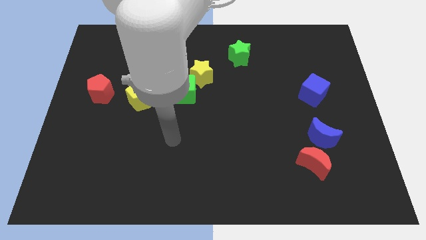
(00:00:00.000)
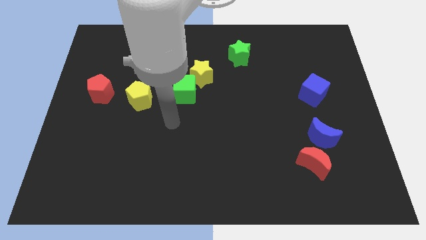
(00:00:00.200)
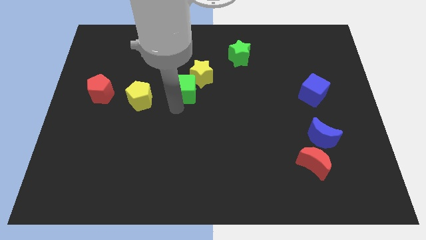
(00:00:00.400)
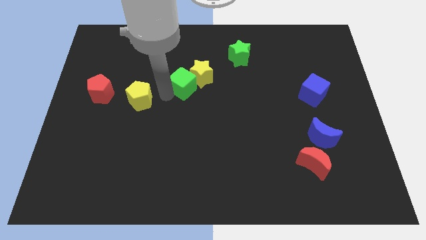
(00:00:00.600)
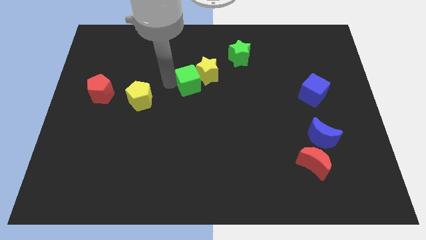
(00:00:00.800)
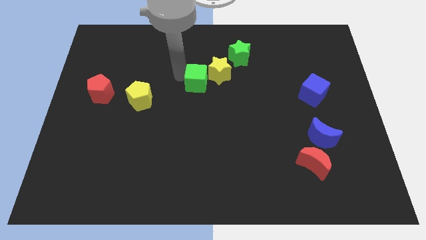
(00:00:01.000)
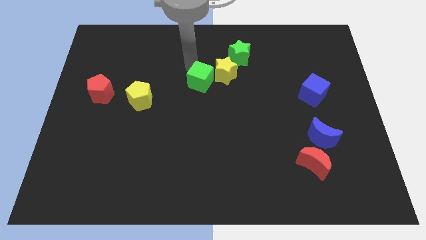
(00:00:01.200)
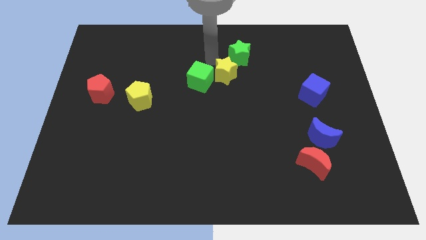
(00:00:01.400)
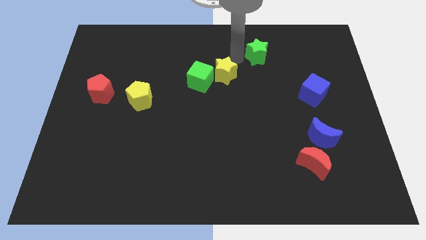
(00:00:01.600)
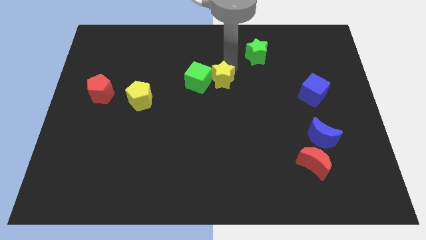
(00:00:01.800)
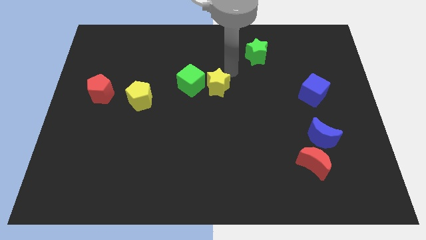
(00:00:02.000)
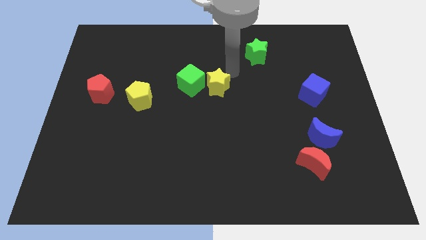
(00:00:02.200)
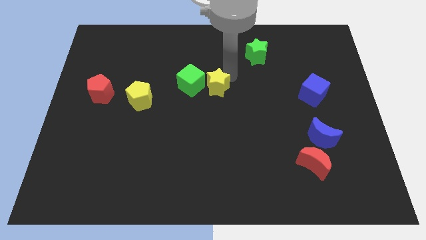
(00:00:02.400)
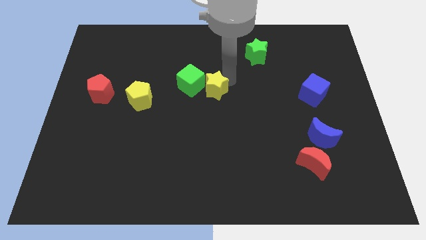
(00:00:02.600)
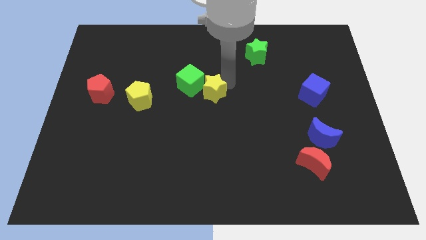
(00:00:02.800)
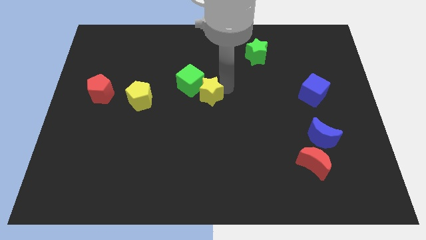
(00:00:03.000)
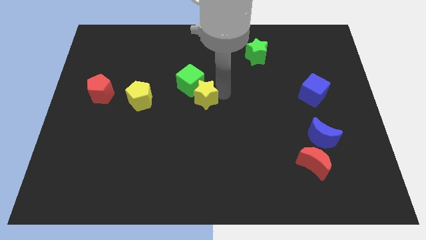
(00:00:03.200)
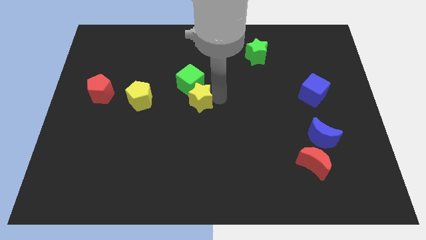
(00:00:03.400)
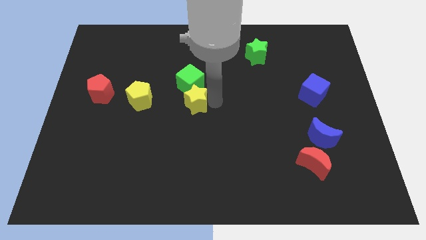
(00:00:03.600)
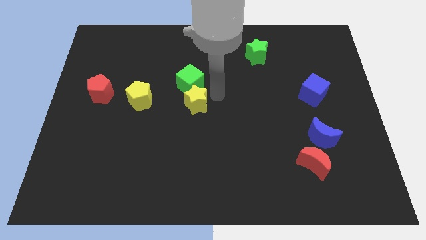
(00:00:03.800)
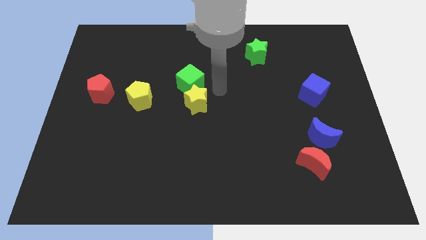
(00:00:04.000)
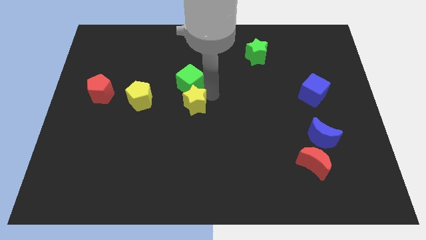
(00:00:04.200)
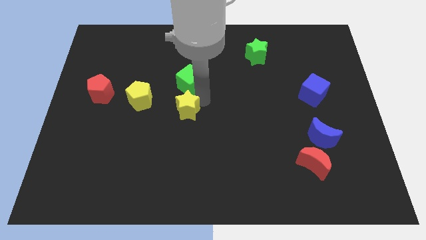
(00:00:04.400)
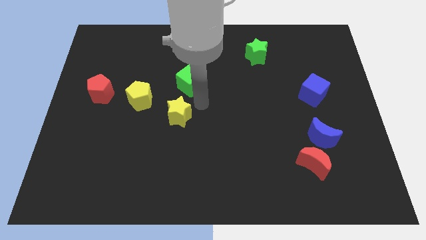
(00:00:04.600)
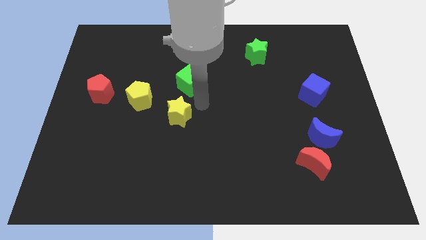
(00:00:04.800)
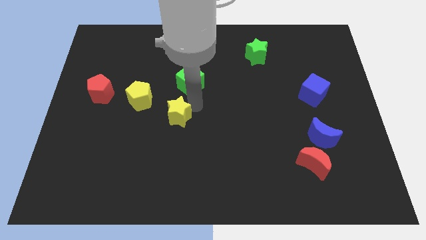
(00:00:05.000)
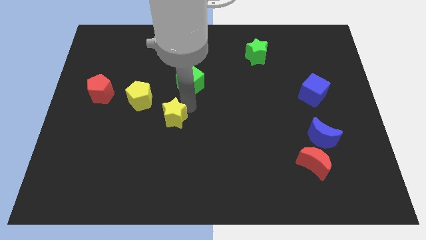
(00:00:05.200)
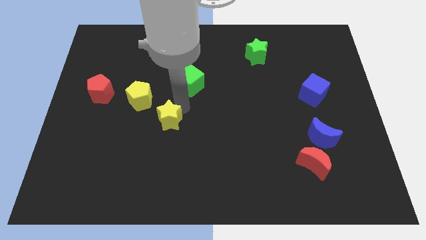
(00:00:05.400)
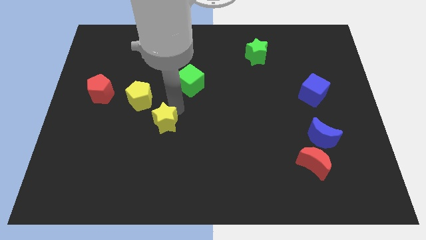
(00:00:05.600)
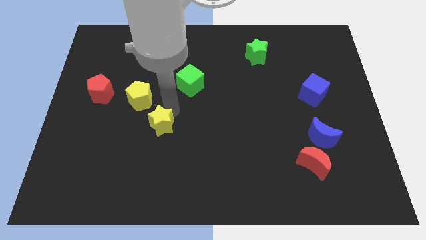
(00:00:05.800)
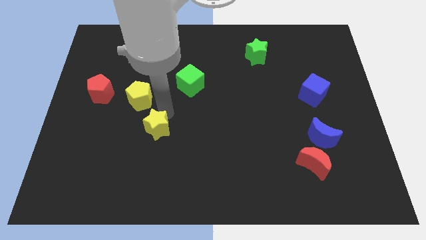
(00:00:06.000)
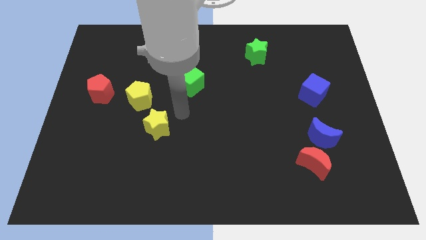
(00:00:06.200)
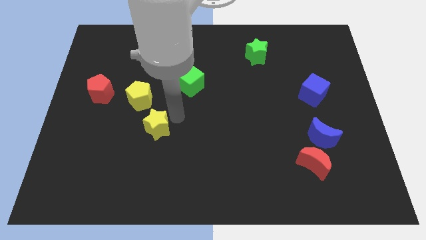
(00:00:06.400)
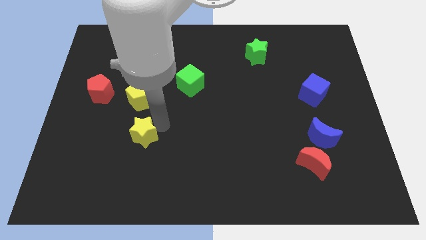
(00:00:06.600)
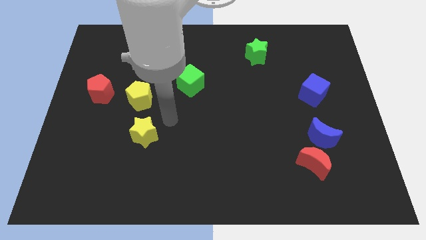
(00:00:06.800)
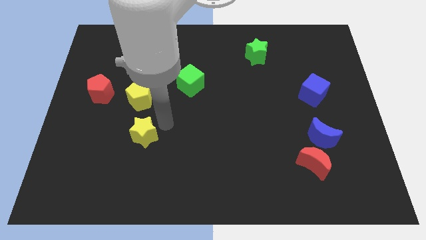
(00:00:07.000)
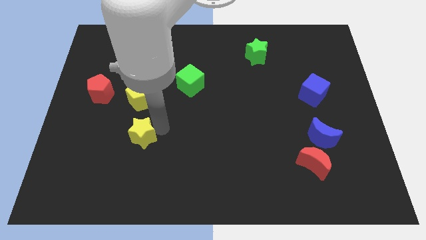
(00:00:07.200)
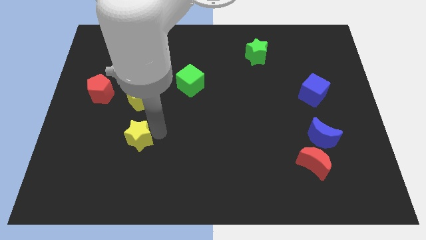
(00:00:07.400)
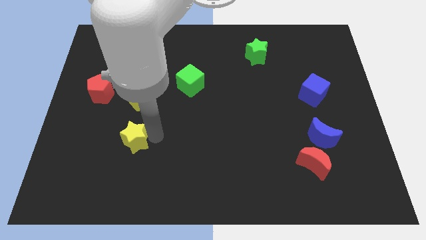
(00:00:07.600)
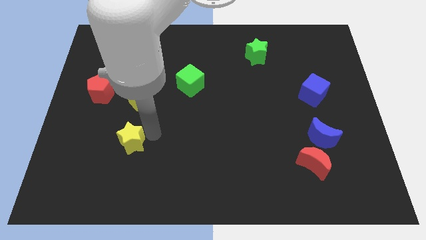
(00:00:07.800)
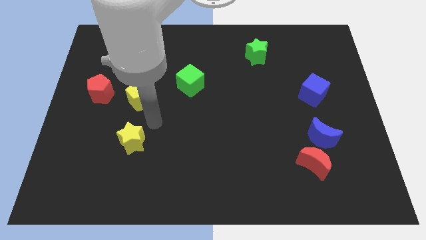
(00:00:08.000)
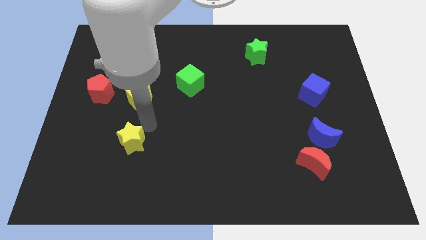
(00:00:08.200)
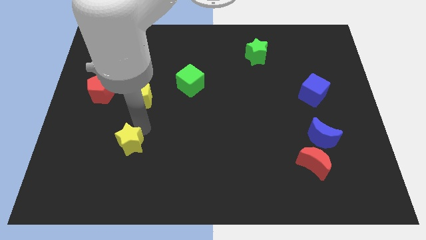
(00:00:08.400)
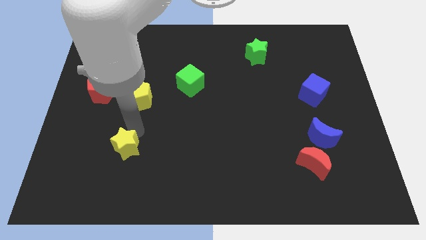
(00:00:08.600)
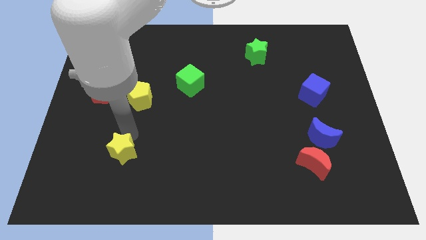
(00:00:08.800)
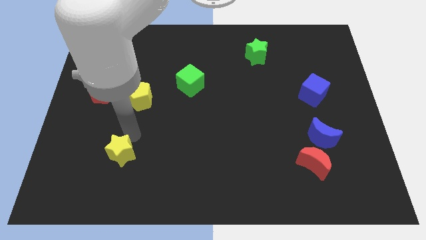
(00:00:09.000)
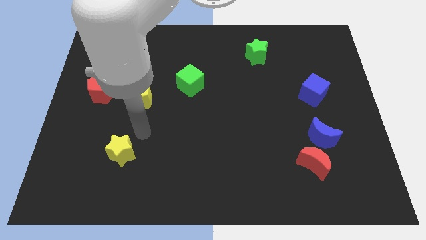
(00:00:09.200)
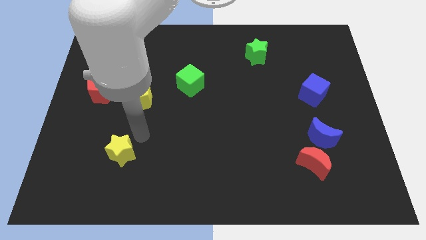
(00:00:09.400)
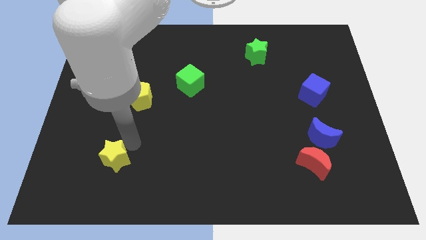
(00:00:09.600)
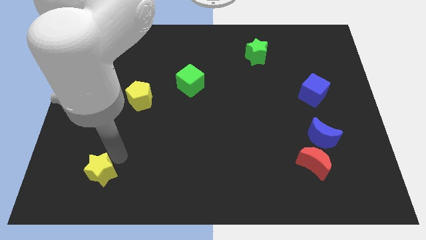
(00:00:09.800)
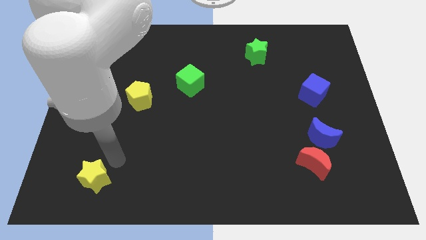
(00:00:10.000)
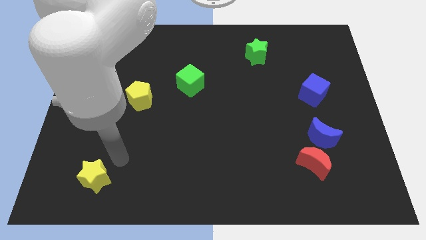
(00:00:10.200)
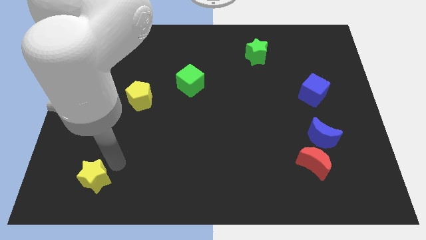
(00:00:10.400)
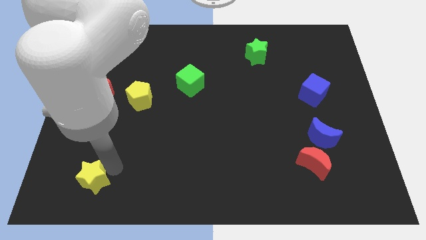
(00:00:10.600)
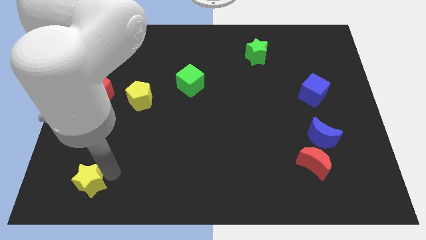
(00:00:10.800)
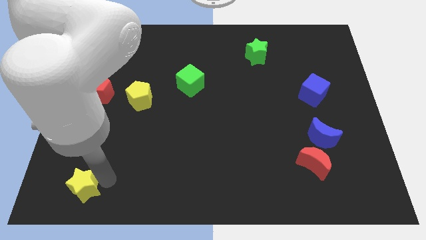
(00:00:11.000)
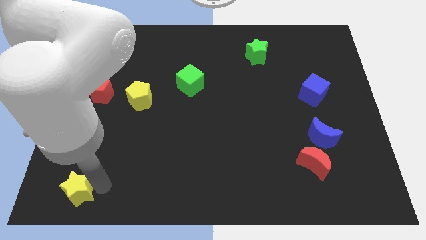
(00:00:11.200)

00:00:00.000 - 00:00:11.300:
put the yellow star to the bottom left of the board

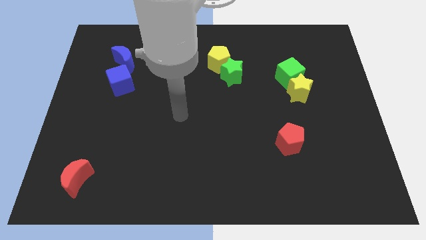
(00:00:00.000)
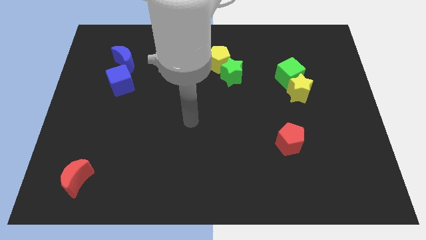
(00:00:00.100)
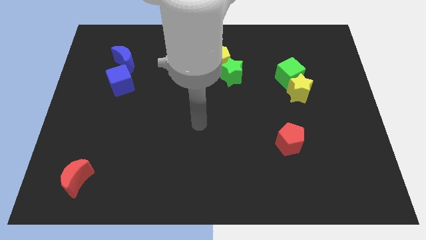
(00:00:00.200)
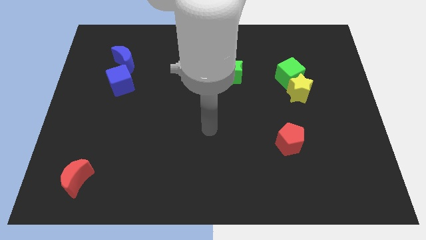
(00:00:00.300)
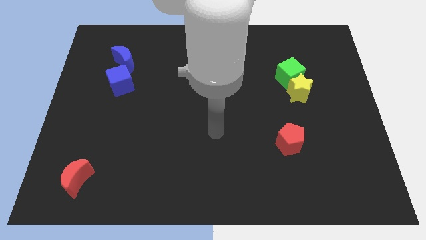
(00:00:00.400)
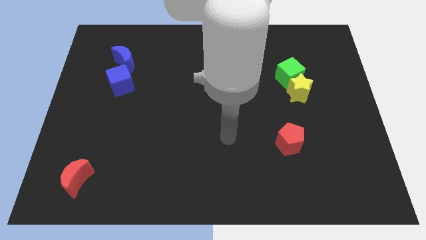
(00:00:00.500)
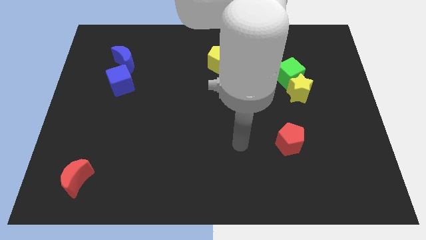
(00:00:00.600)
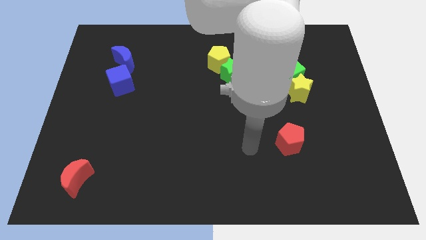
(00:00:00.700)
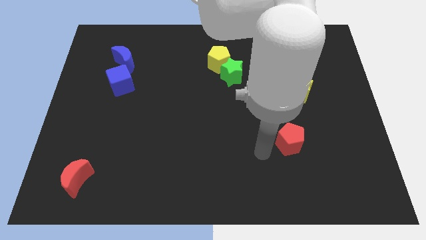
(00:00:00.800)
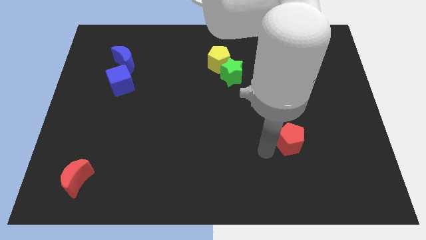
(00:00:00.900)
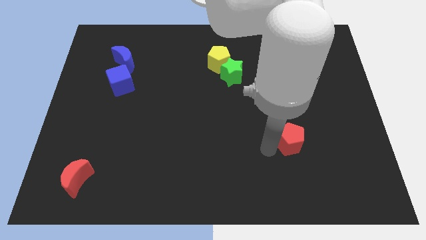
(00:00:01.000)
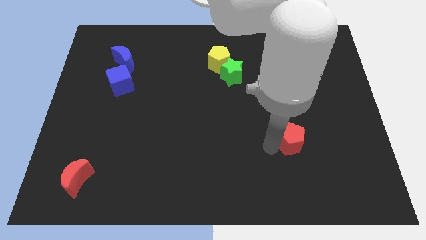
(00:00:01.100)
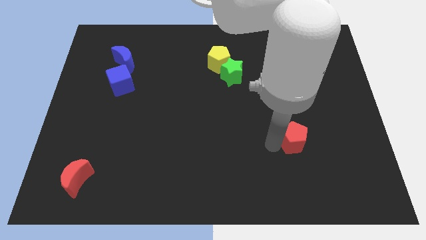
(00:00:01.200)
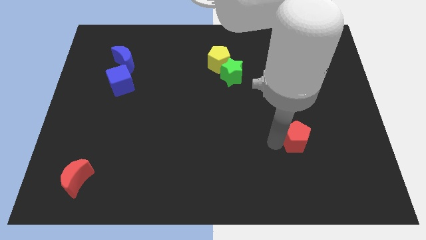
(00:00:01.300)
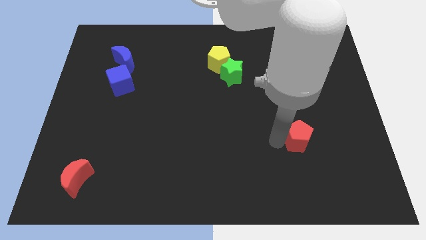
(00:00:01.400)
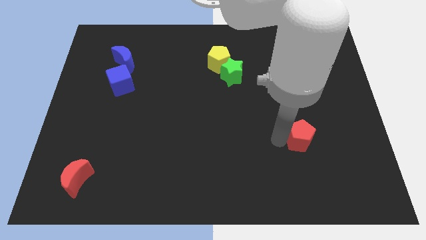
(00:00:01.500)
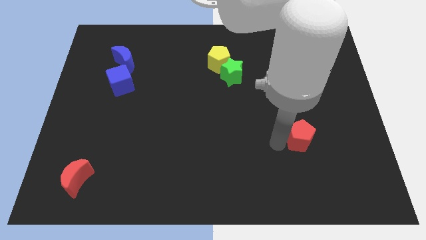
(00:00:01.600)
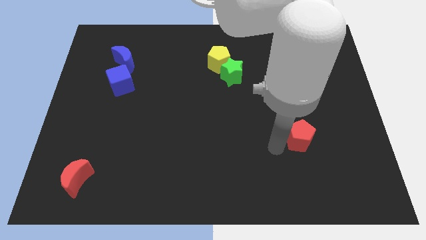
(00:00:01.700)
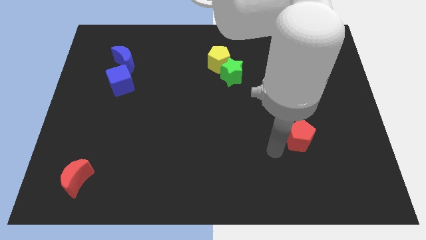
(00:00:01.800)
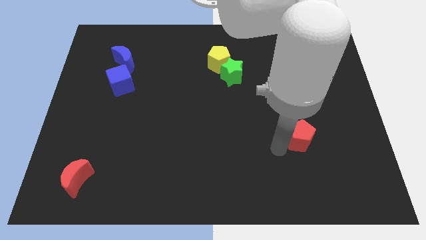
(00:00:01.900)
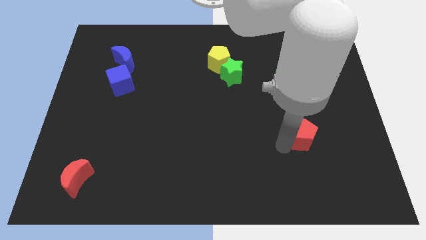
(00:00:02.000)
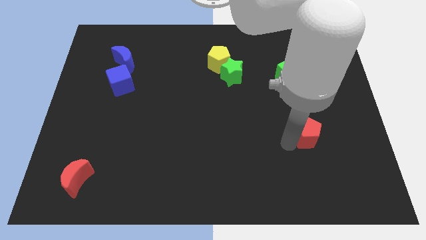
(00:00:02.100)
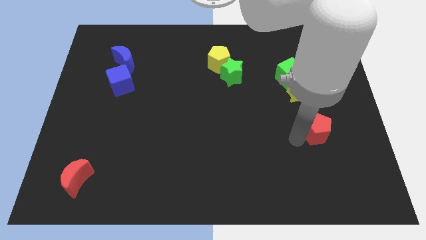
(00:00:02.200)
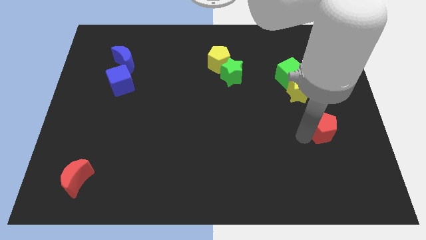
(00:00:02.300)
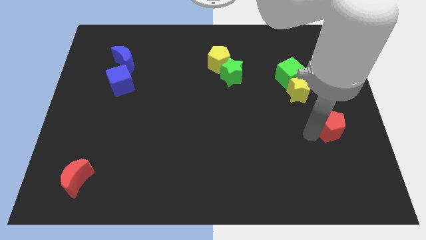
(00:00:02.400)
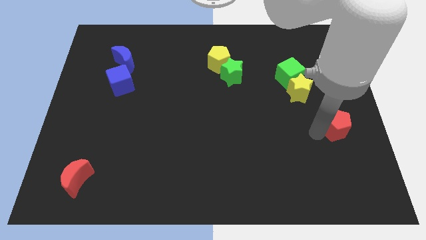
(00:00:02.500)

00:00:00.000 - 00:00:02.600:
put the red pentagon to the center right
